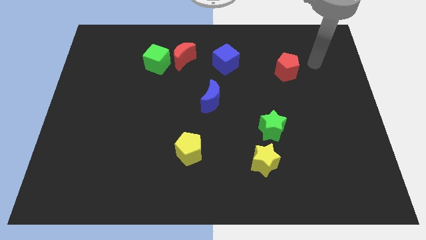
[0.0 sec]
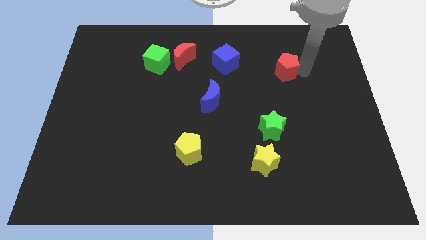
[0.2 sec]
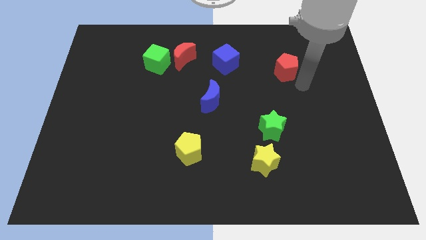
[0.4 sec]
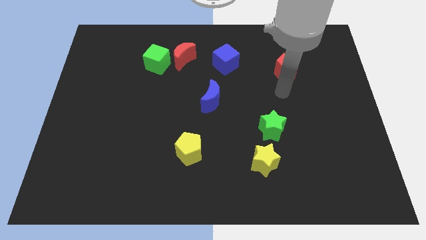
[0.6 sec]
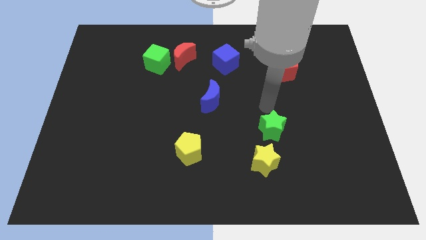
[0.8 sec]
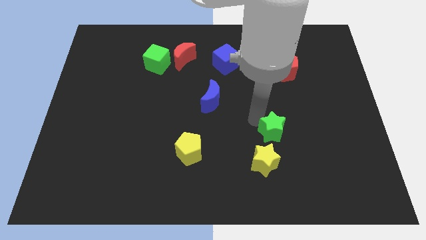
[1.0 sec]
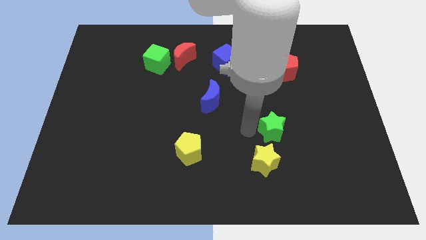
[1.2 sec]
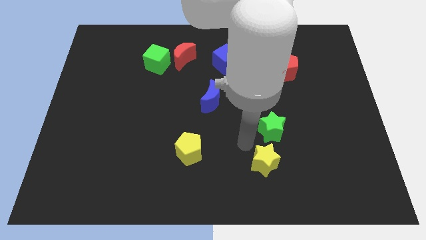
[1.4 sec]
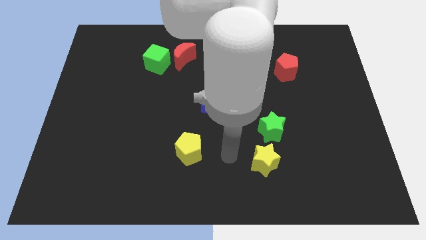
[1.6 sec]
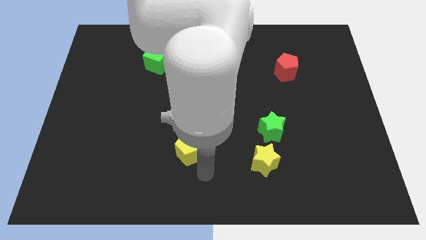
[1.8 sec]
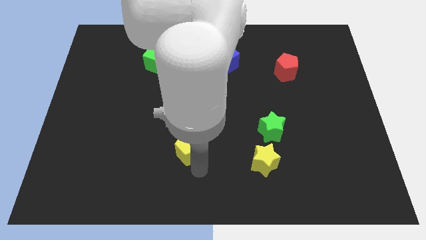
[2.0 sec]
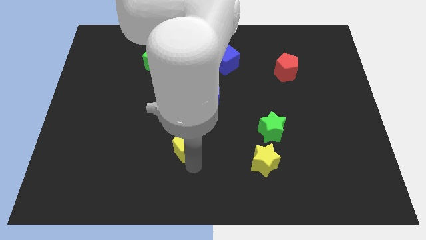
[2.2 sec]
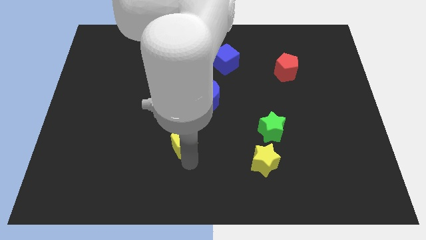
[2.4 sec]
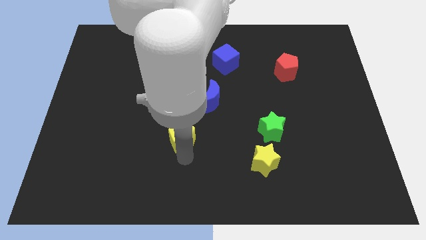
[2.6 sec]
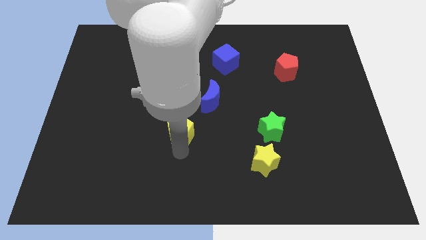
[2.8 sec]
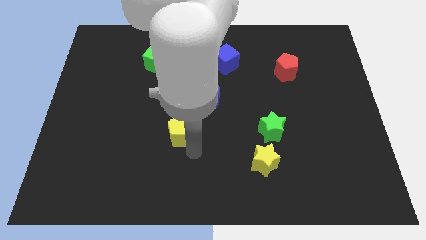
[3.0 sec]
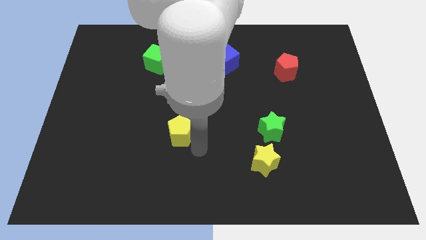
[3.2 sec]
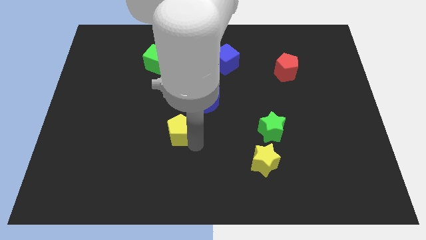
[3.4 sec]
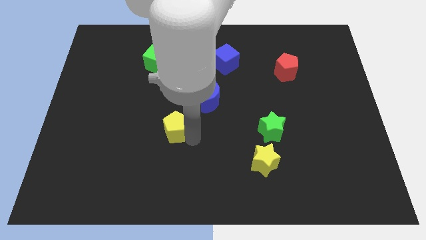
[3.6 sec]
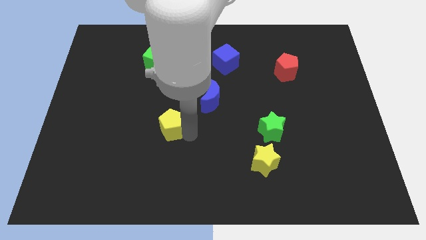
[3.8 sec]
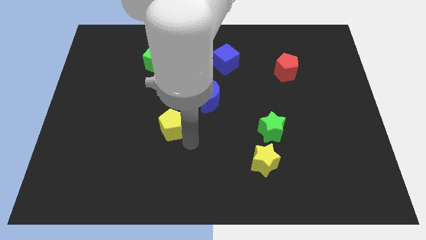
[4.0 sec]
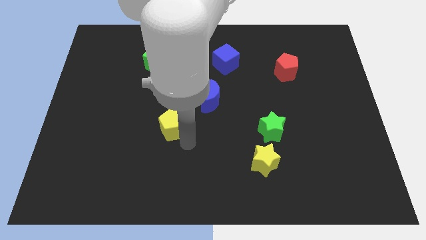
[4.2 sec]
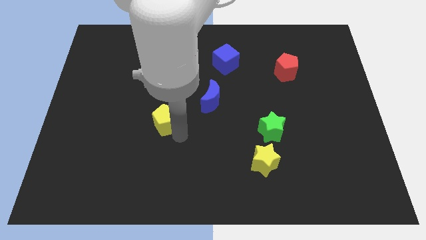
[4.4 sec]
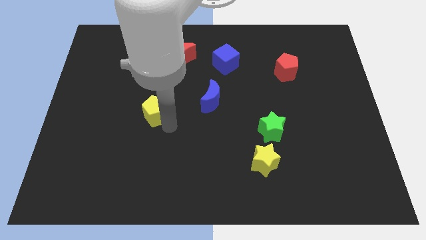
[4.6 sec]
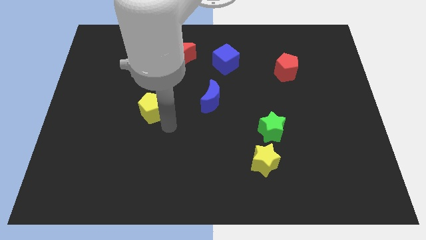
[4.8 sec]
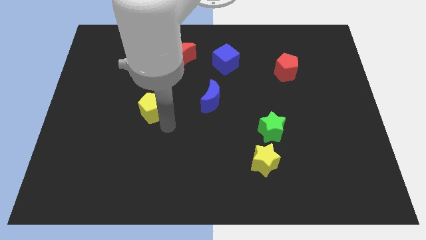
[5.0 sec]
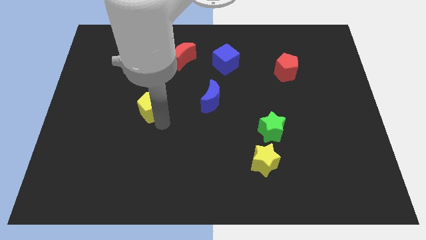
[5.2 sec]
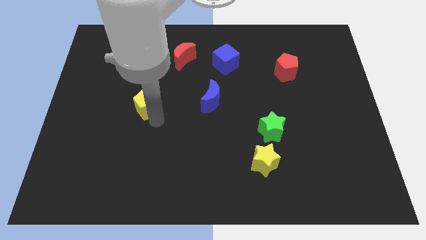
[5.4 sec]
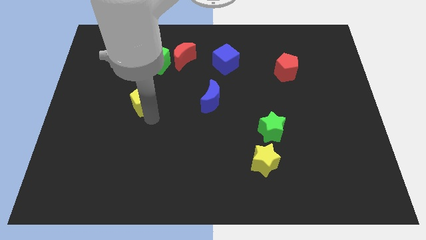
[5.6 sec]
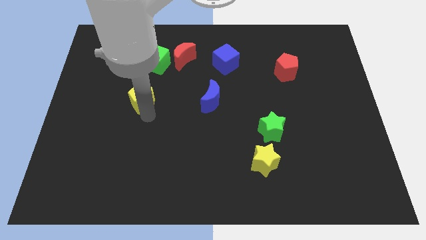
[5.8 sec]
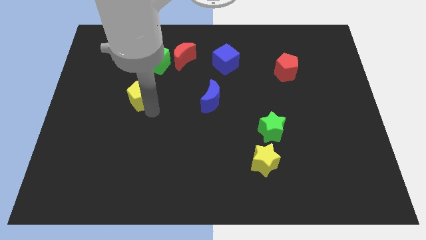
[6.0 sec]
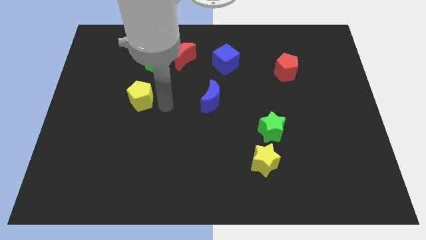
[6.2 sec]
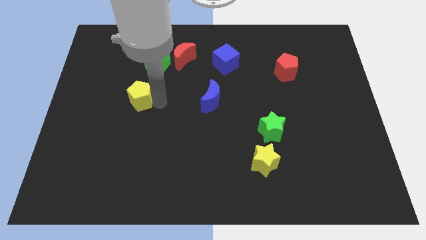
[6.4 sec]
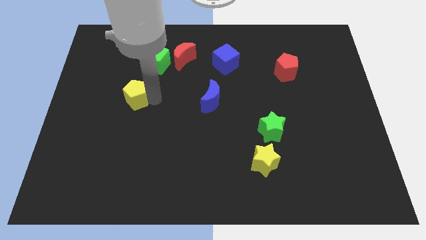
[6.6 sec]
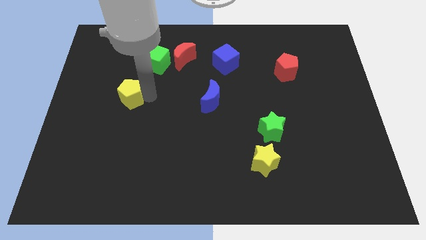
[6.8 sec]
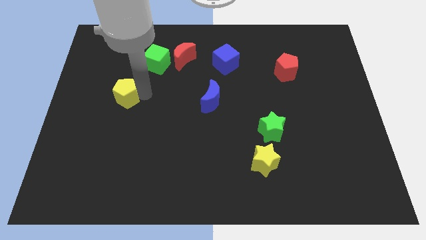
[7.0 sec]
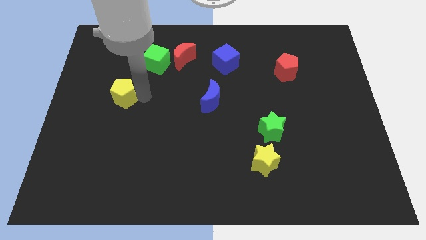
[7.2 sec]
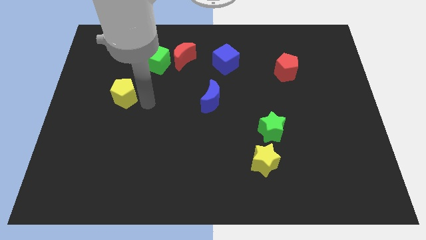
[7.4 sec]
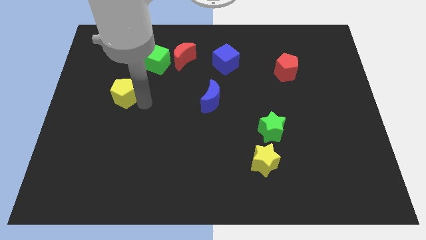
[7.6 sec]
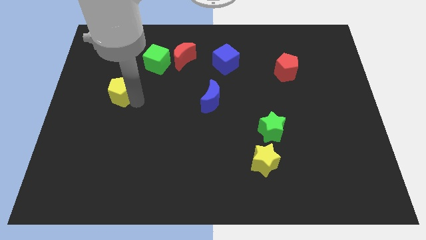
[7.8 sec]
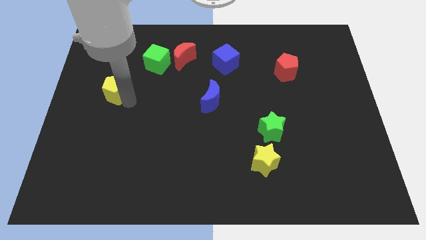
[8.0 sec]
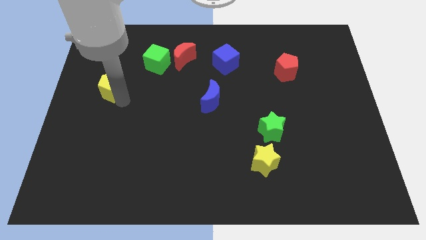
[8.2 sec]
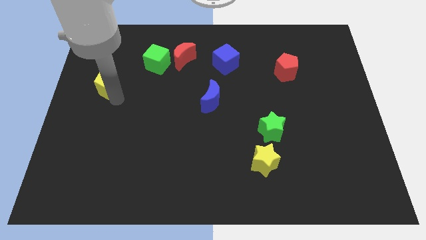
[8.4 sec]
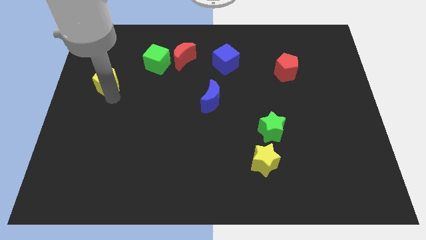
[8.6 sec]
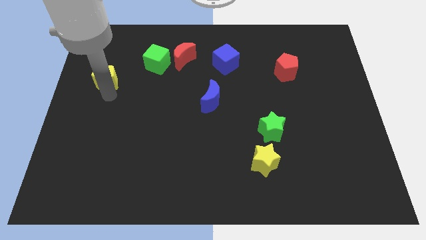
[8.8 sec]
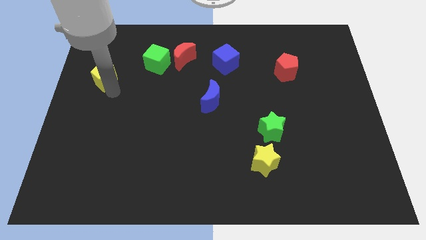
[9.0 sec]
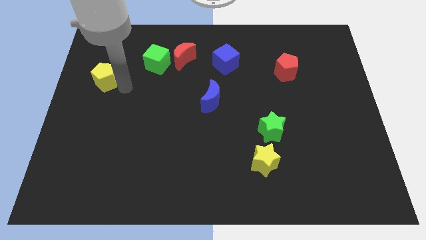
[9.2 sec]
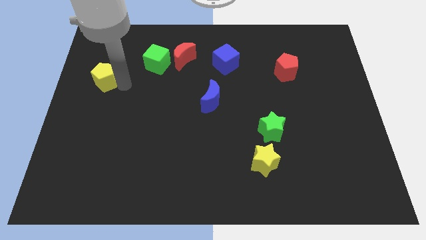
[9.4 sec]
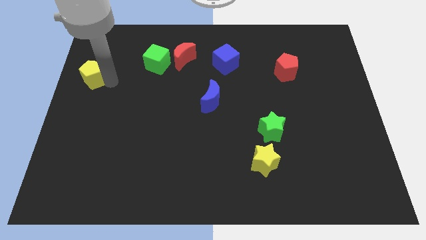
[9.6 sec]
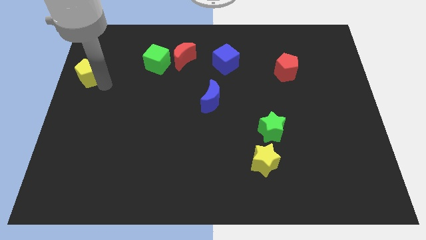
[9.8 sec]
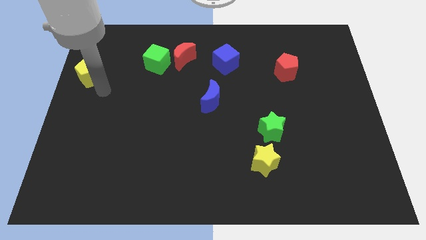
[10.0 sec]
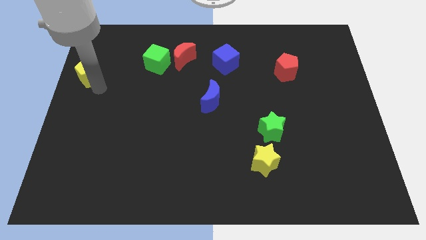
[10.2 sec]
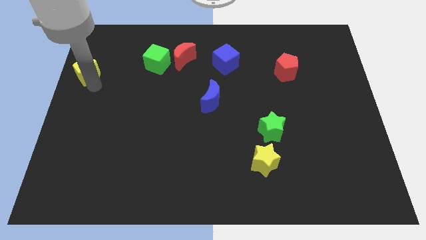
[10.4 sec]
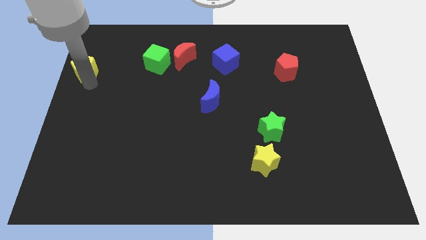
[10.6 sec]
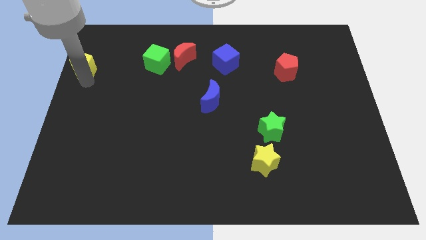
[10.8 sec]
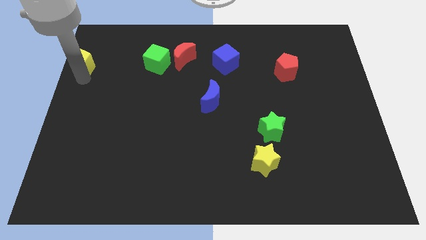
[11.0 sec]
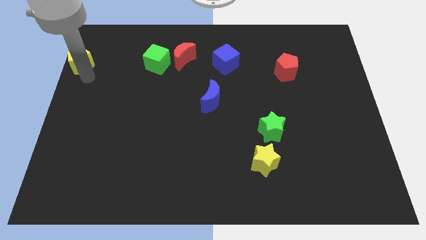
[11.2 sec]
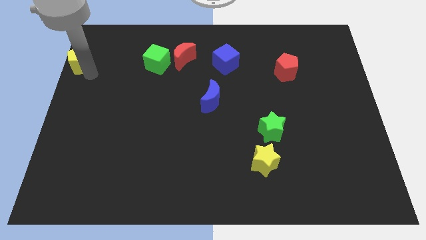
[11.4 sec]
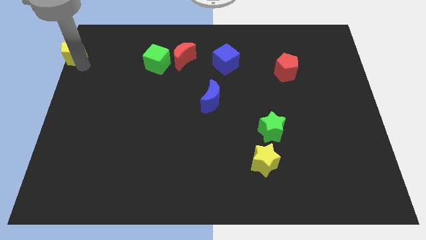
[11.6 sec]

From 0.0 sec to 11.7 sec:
push the yellow pentagon to the upper left corner

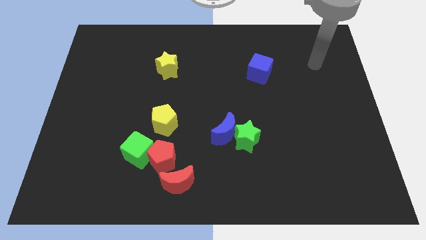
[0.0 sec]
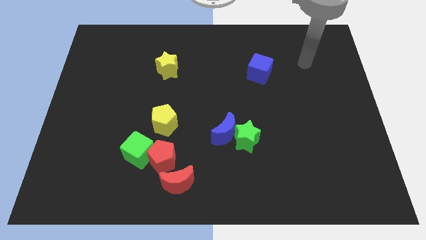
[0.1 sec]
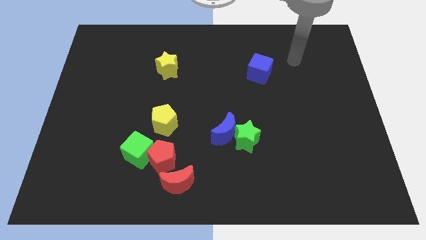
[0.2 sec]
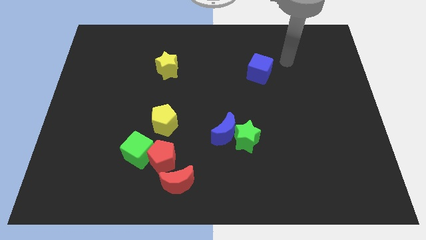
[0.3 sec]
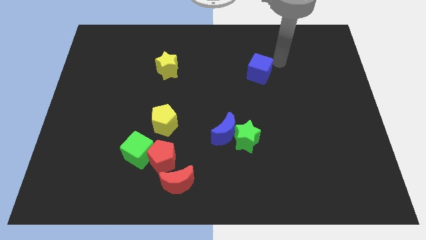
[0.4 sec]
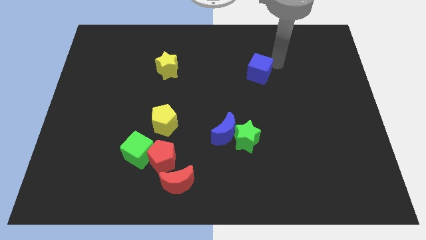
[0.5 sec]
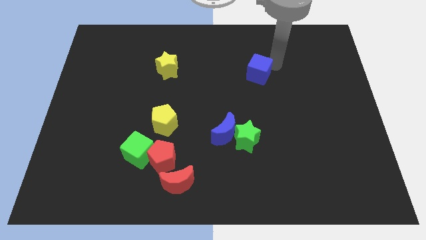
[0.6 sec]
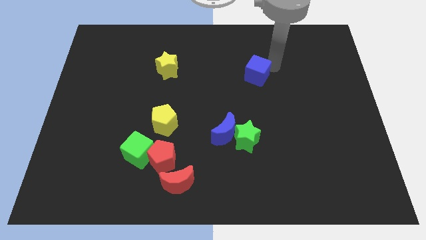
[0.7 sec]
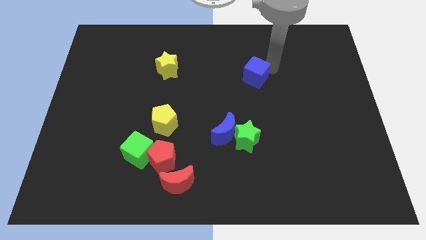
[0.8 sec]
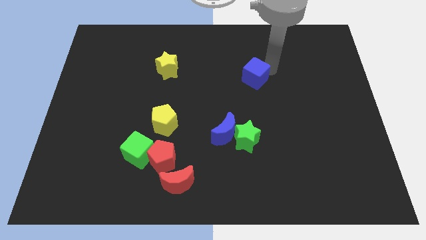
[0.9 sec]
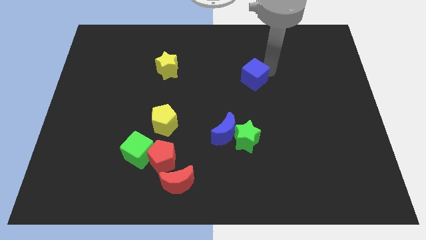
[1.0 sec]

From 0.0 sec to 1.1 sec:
put the blue cube to the center of the board
